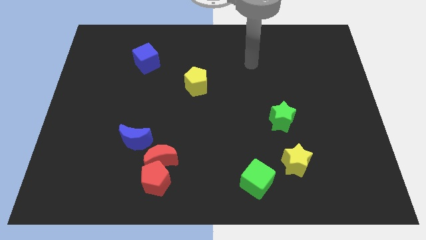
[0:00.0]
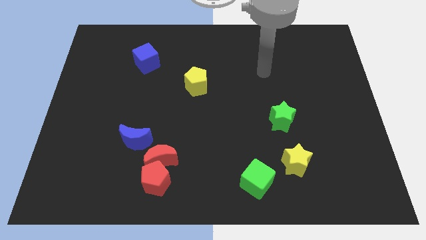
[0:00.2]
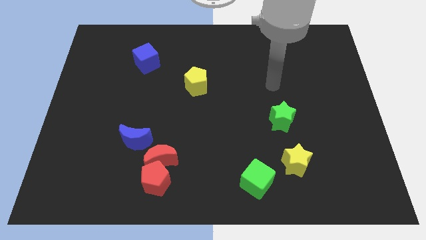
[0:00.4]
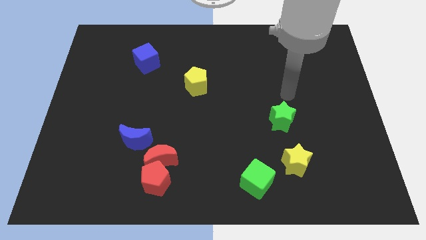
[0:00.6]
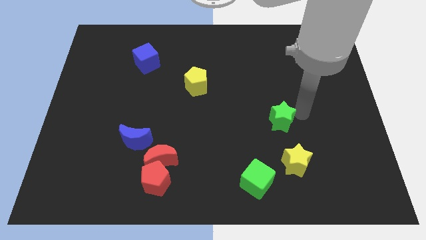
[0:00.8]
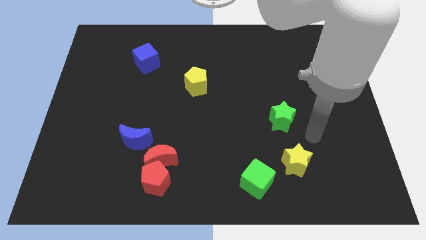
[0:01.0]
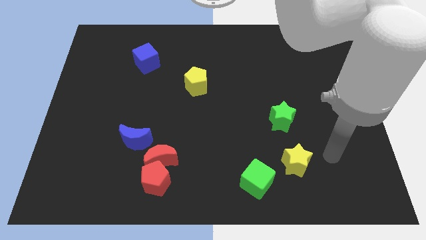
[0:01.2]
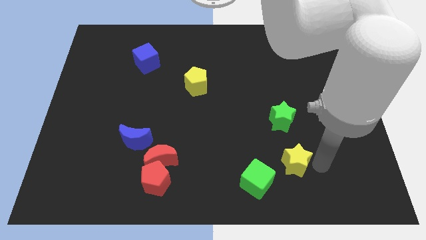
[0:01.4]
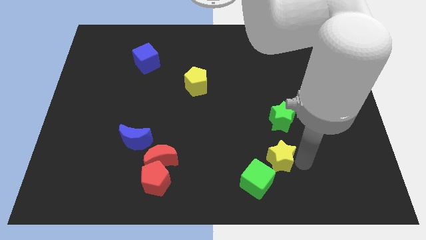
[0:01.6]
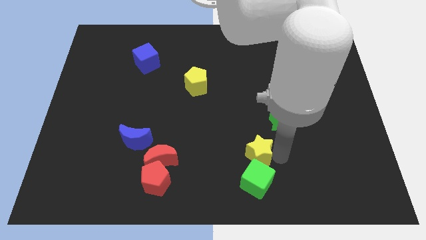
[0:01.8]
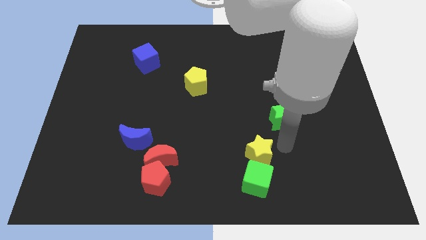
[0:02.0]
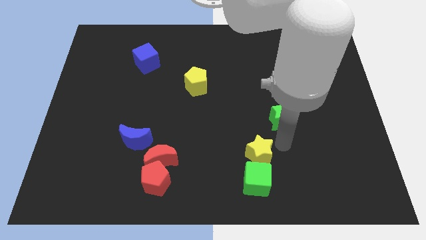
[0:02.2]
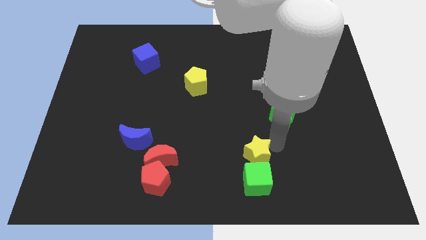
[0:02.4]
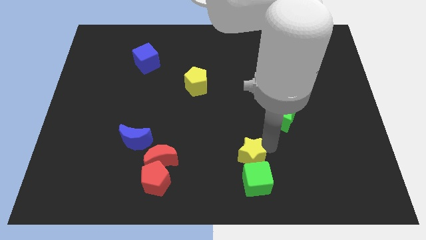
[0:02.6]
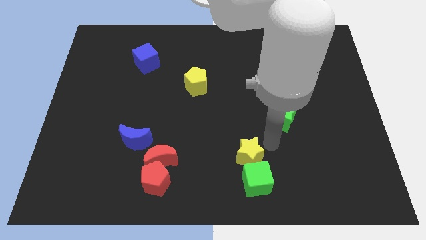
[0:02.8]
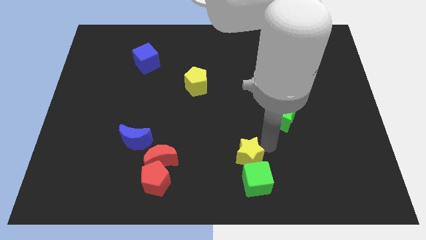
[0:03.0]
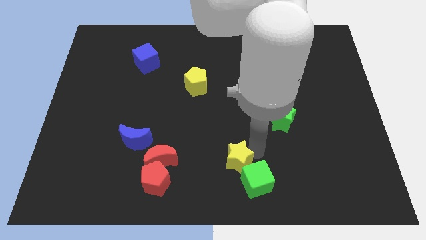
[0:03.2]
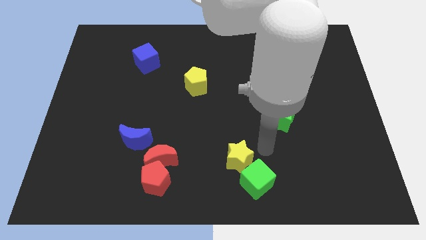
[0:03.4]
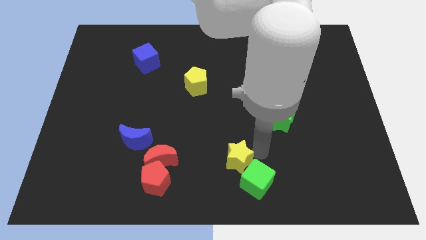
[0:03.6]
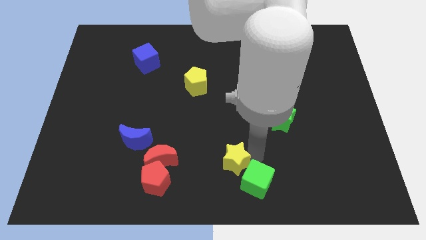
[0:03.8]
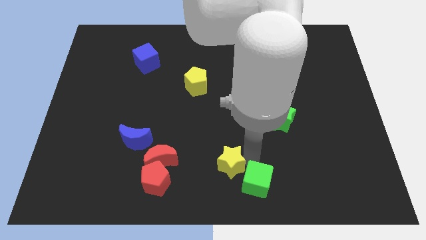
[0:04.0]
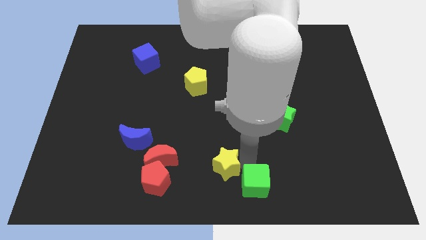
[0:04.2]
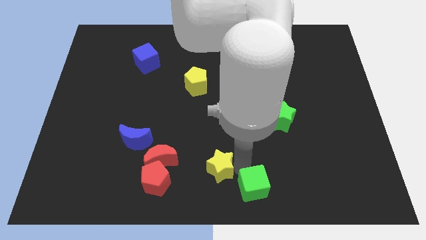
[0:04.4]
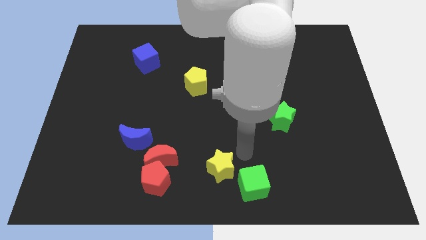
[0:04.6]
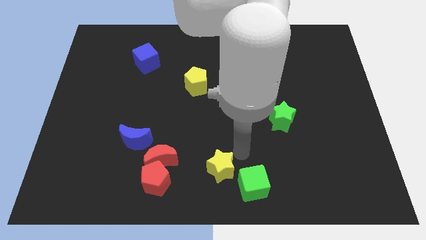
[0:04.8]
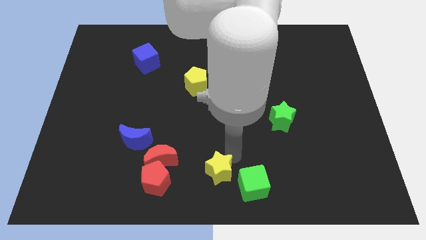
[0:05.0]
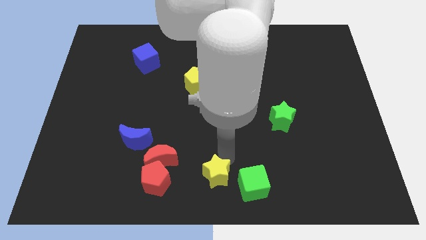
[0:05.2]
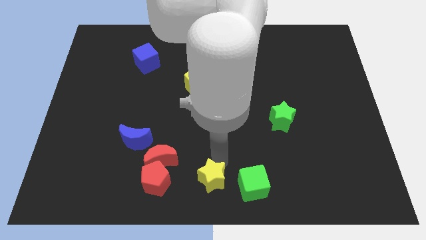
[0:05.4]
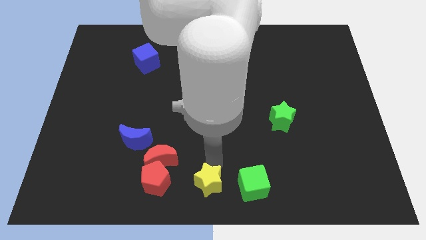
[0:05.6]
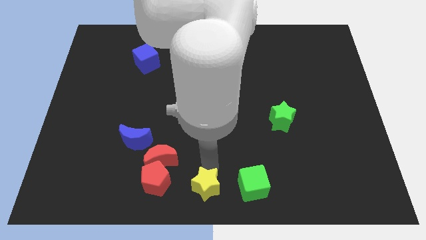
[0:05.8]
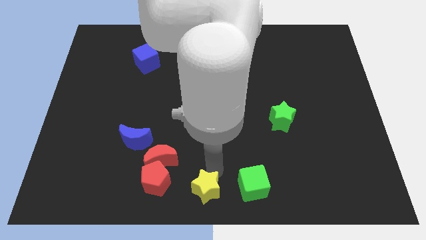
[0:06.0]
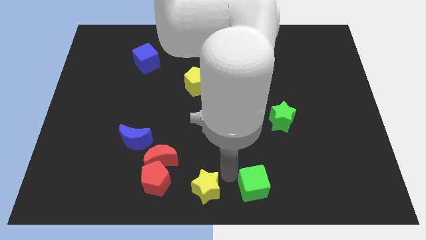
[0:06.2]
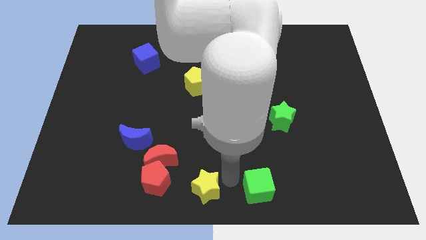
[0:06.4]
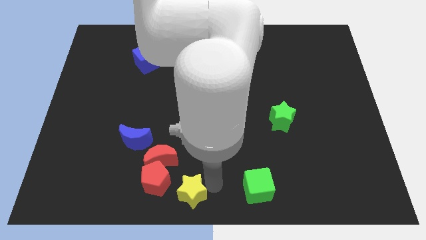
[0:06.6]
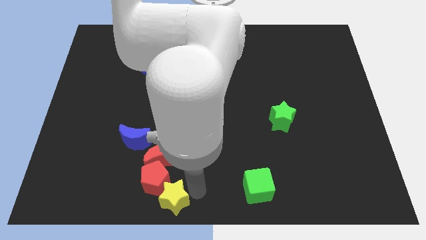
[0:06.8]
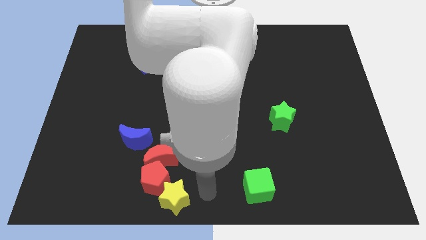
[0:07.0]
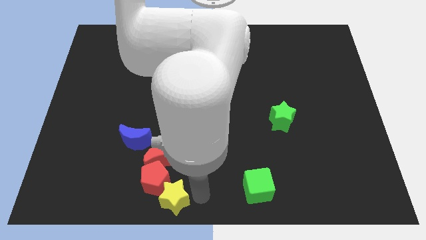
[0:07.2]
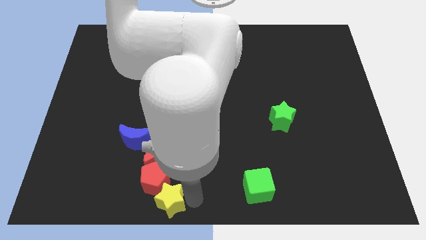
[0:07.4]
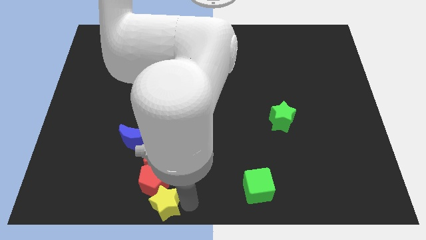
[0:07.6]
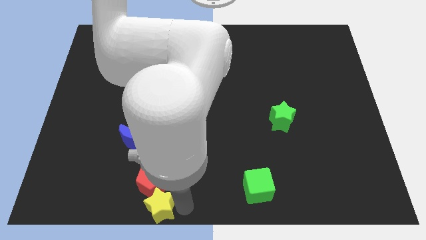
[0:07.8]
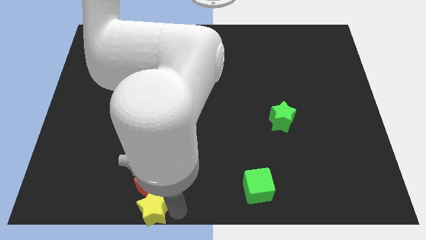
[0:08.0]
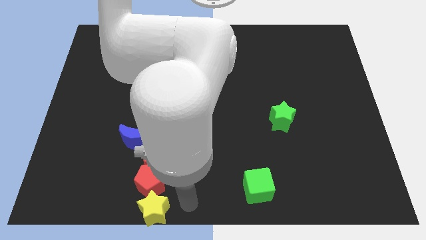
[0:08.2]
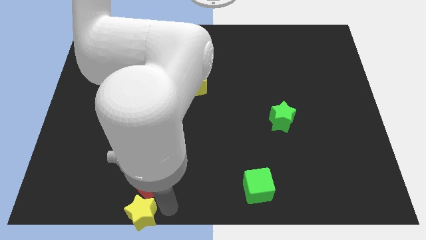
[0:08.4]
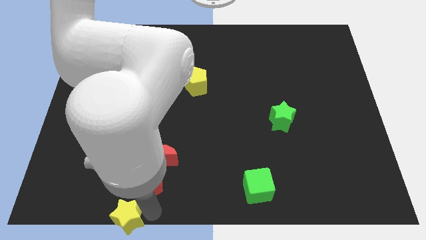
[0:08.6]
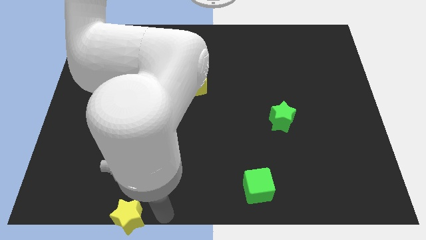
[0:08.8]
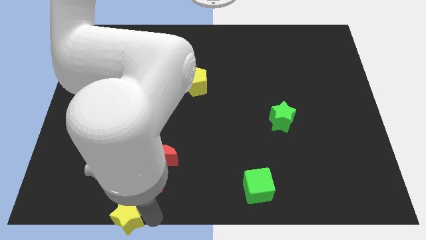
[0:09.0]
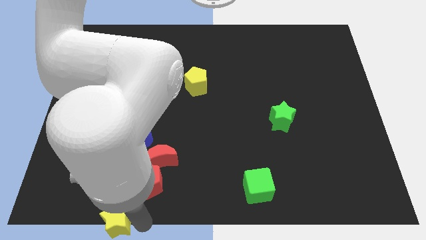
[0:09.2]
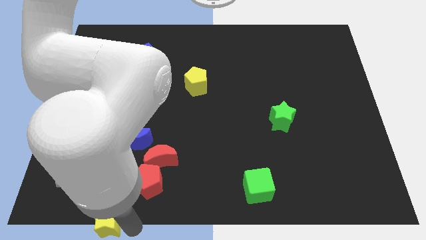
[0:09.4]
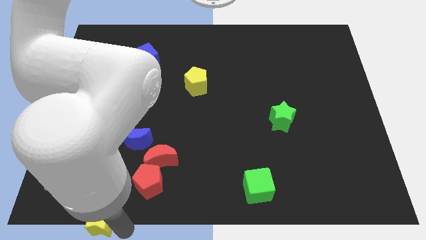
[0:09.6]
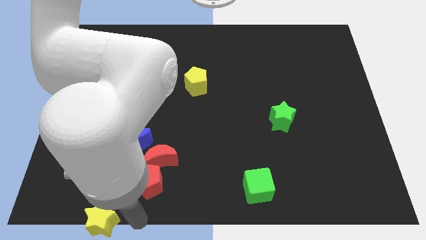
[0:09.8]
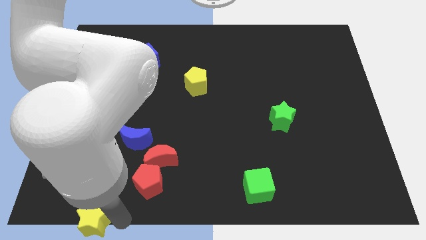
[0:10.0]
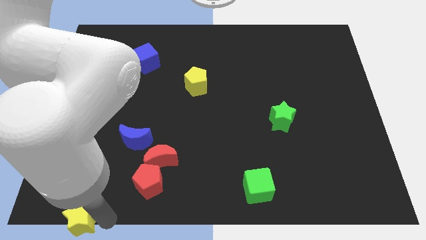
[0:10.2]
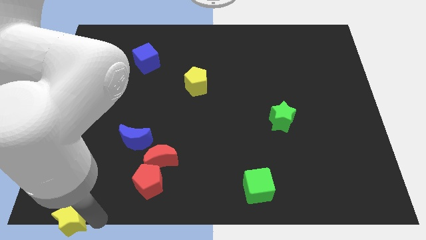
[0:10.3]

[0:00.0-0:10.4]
put the yellow star to the bottom left of the board

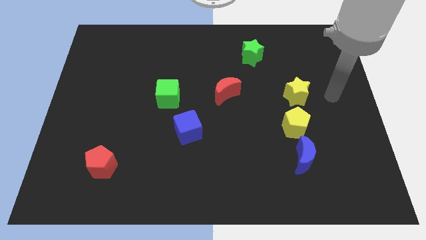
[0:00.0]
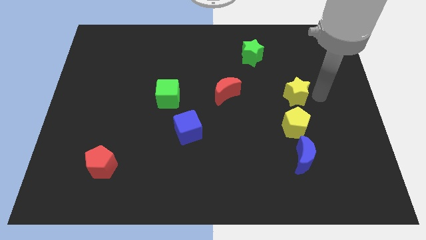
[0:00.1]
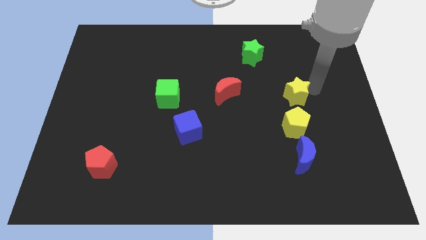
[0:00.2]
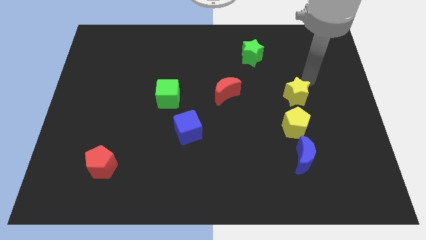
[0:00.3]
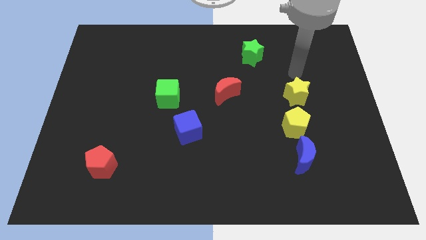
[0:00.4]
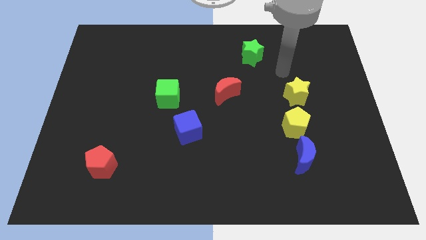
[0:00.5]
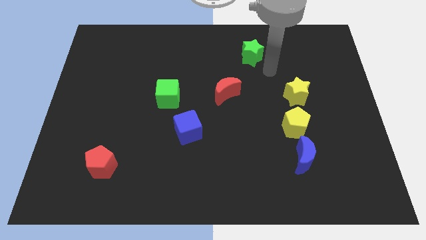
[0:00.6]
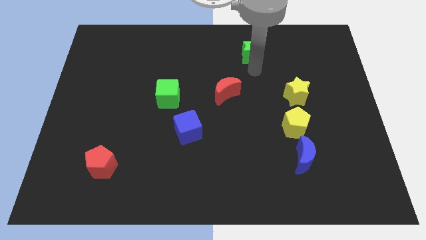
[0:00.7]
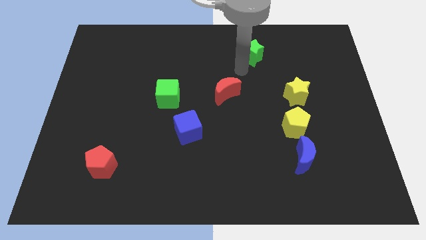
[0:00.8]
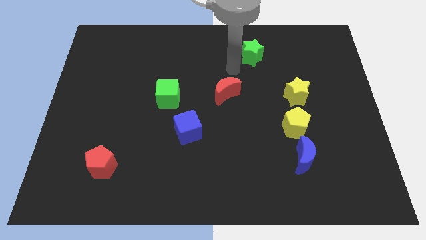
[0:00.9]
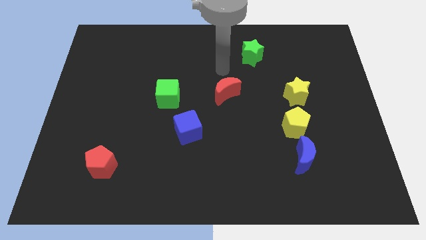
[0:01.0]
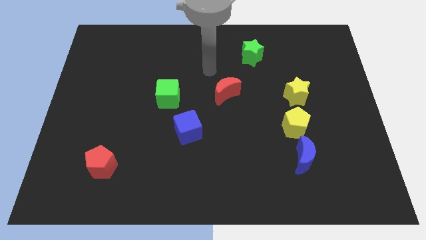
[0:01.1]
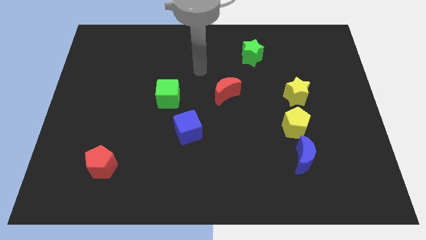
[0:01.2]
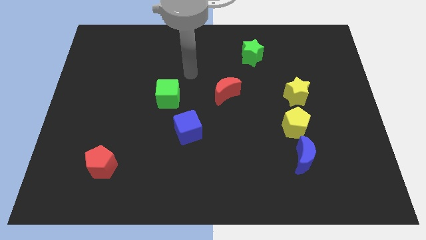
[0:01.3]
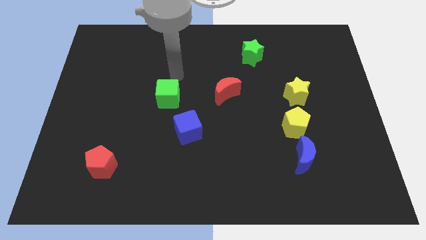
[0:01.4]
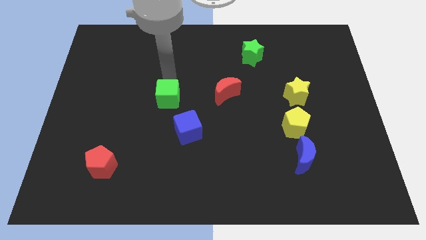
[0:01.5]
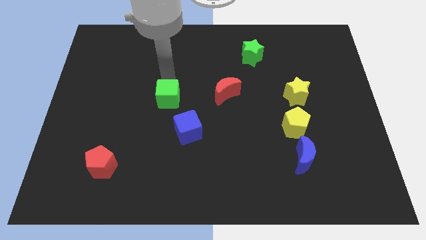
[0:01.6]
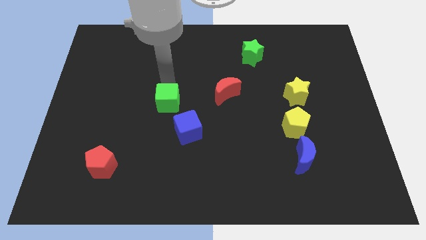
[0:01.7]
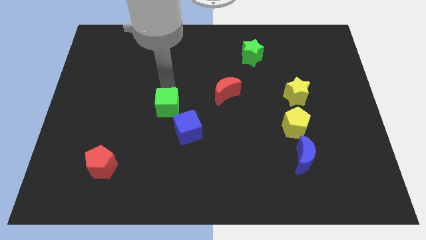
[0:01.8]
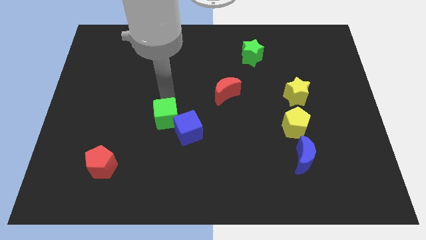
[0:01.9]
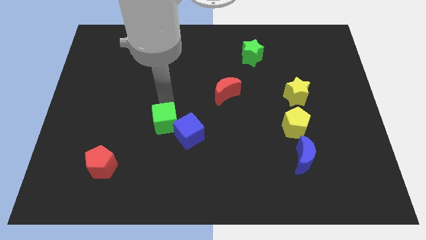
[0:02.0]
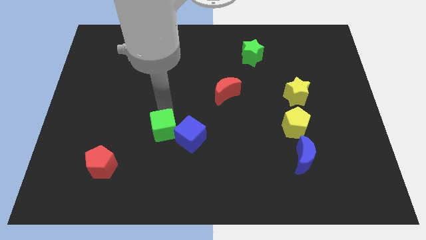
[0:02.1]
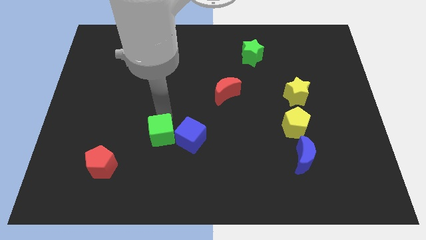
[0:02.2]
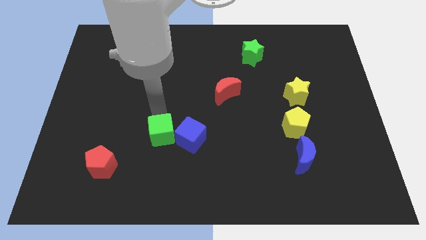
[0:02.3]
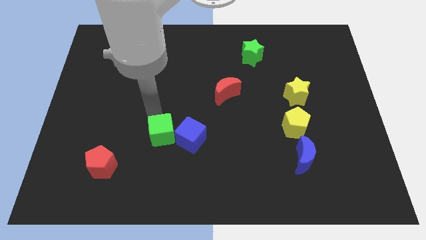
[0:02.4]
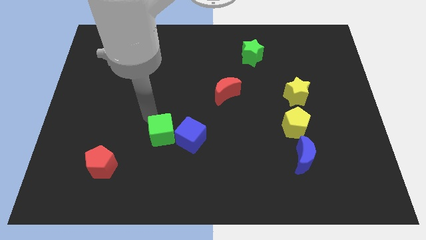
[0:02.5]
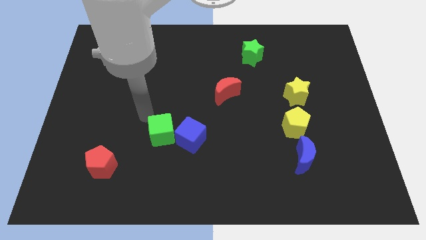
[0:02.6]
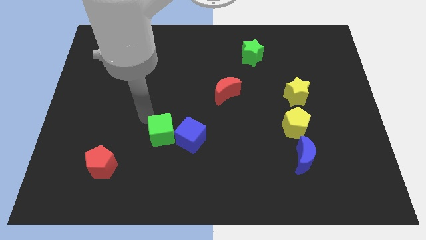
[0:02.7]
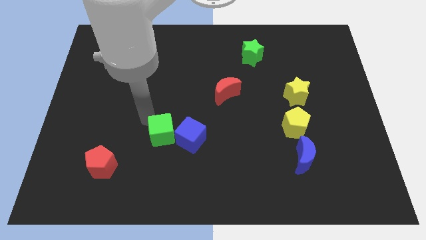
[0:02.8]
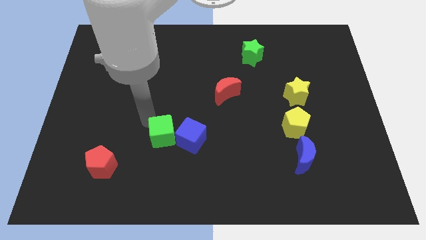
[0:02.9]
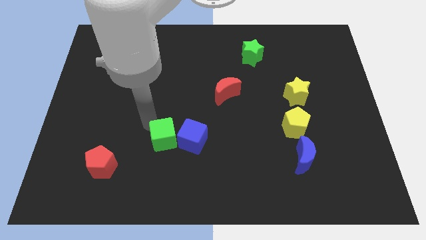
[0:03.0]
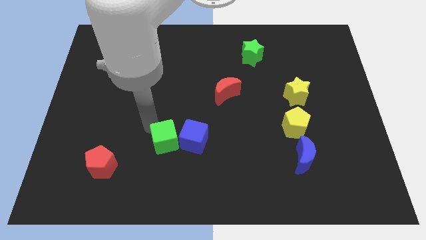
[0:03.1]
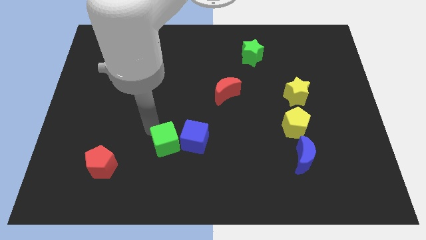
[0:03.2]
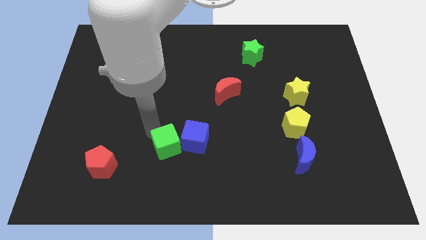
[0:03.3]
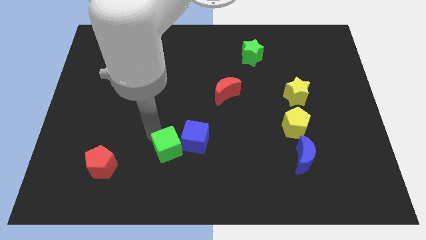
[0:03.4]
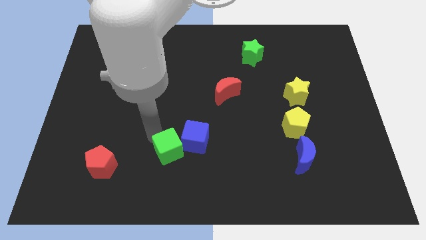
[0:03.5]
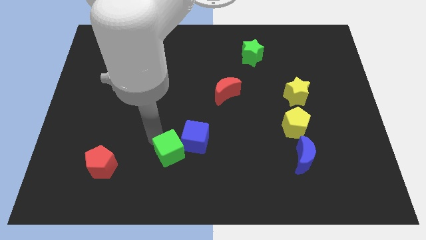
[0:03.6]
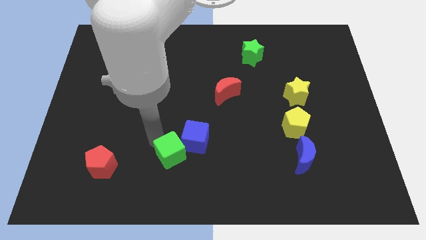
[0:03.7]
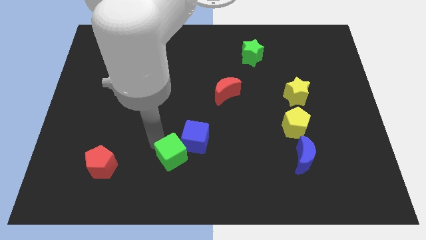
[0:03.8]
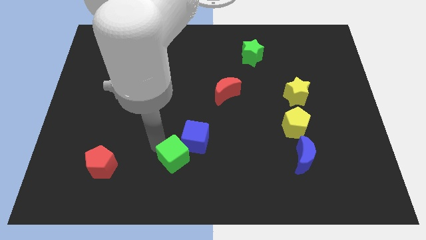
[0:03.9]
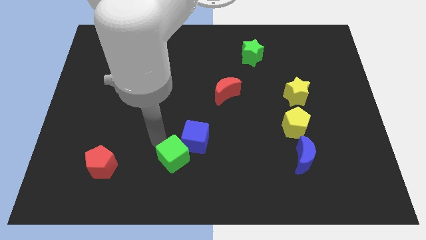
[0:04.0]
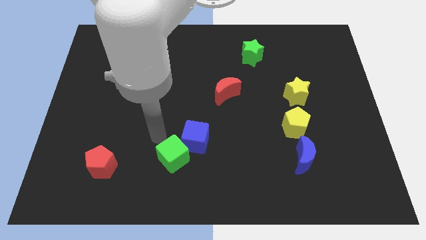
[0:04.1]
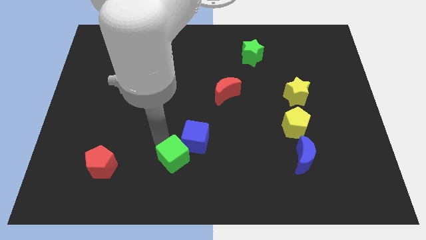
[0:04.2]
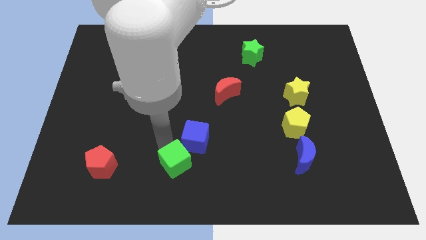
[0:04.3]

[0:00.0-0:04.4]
move the green cube to the bottom
